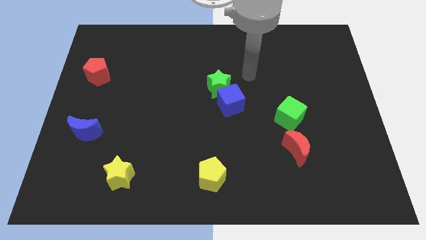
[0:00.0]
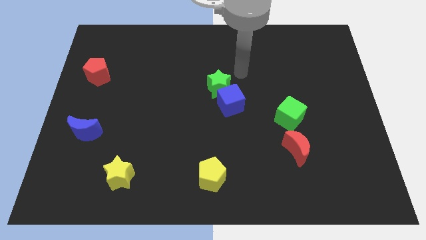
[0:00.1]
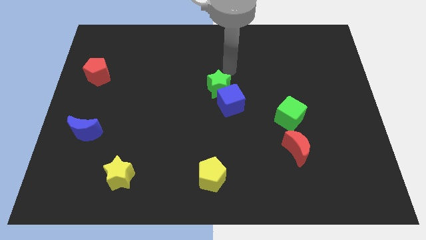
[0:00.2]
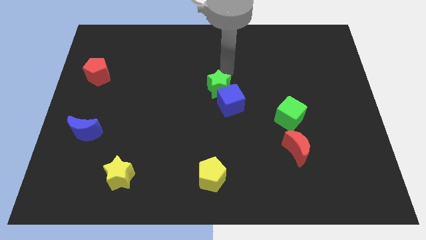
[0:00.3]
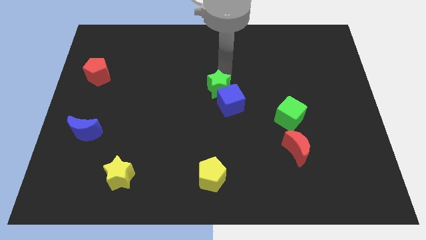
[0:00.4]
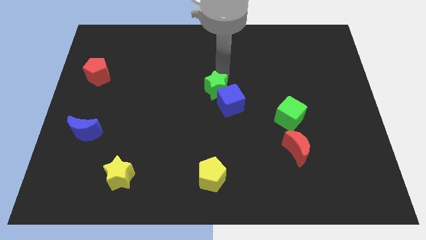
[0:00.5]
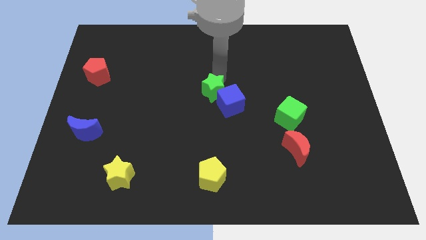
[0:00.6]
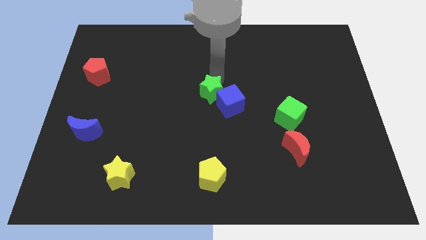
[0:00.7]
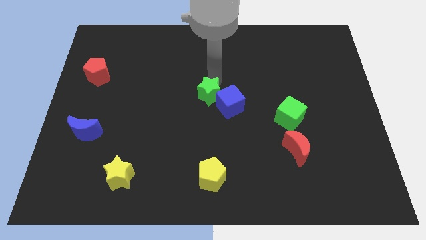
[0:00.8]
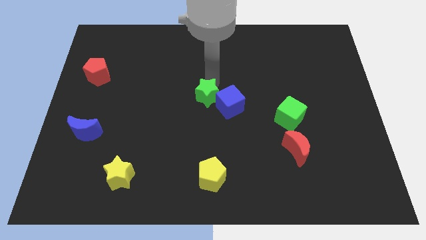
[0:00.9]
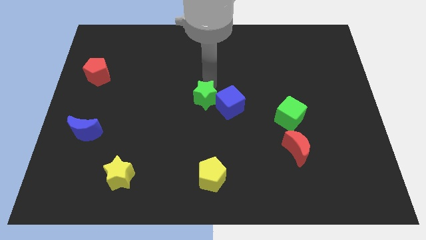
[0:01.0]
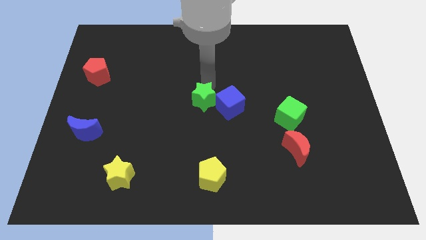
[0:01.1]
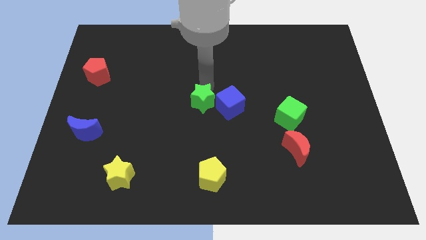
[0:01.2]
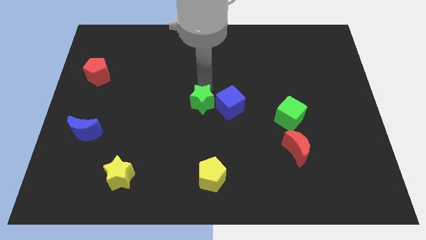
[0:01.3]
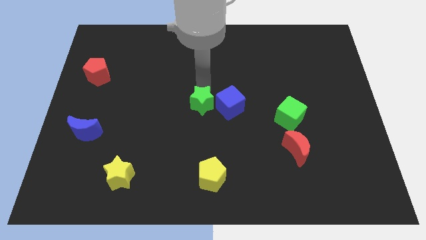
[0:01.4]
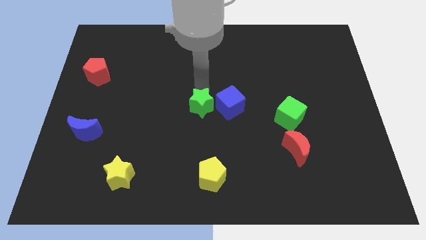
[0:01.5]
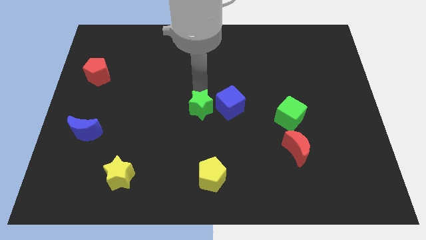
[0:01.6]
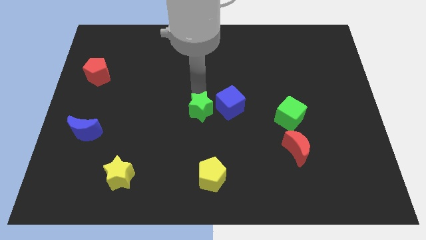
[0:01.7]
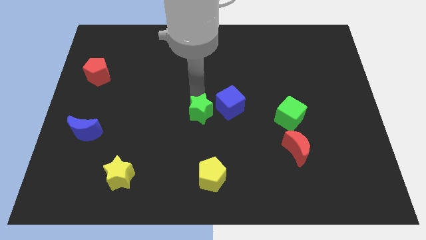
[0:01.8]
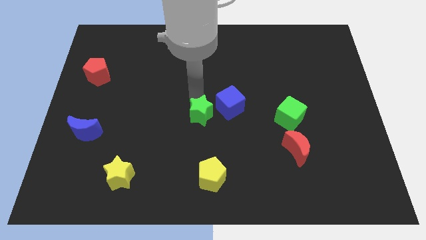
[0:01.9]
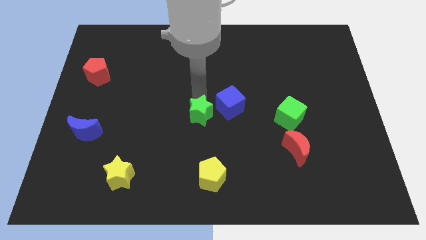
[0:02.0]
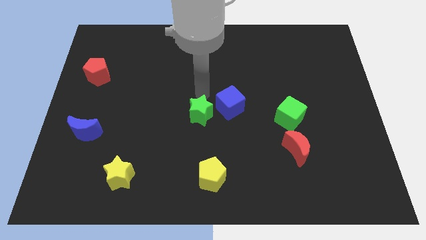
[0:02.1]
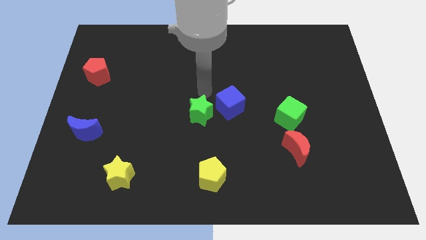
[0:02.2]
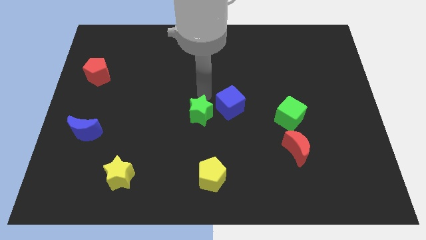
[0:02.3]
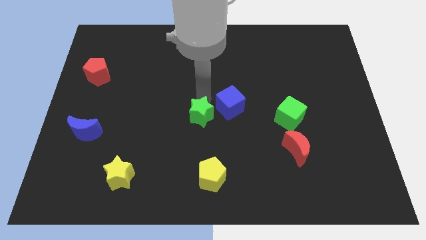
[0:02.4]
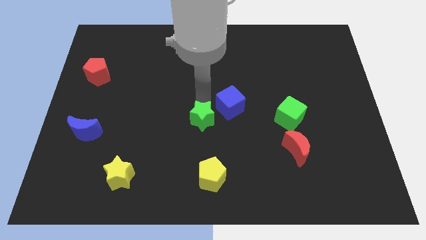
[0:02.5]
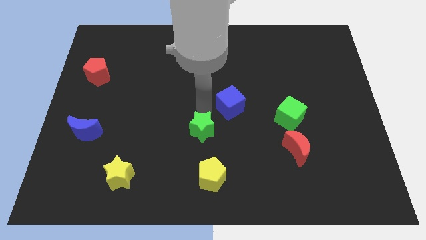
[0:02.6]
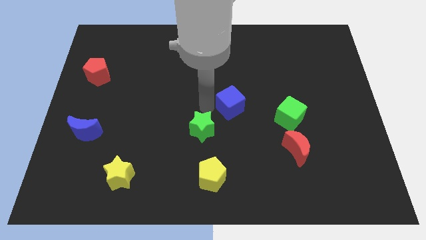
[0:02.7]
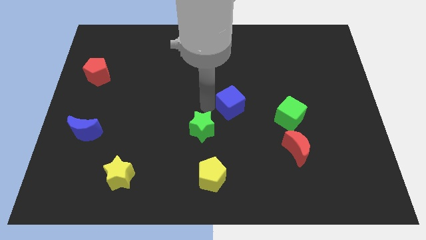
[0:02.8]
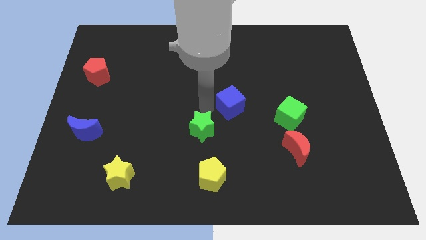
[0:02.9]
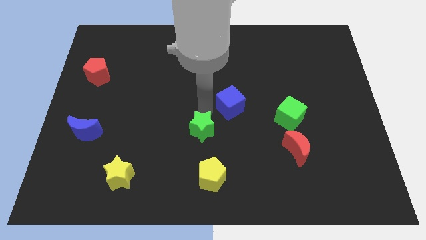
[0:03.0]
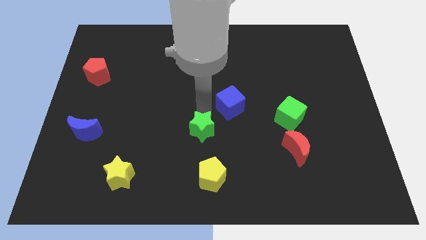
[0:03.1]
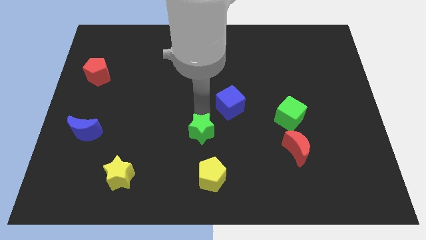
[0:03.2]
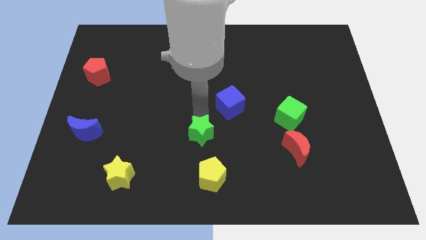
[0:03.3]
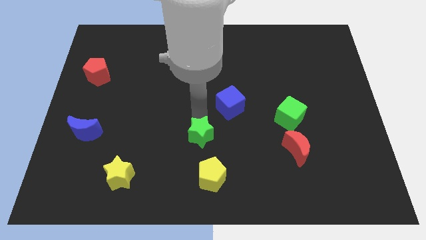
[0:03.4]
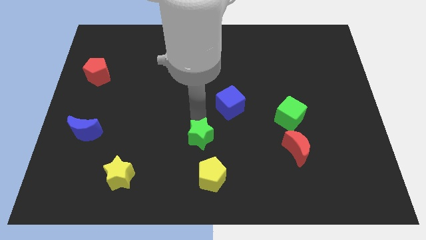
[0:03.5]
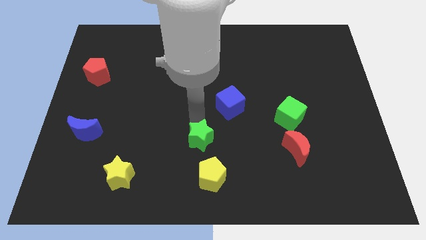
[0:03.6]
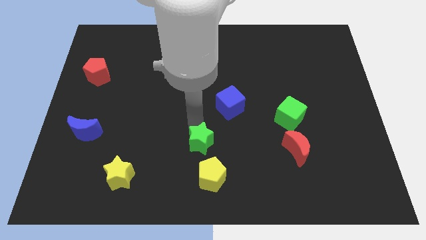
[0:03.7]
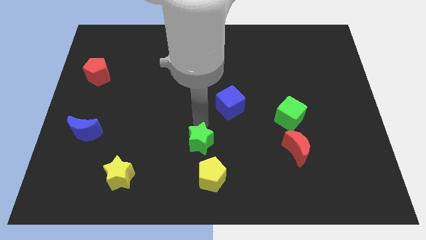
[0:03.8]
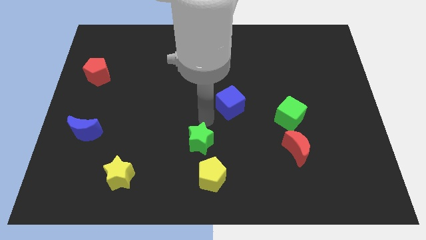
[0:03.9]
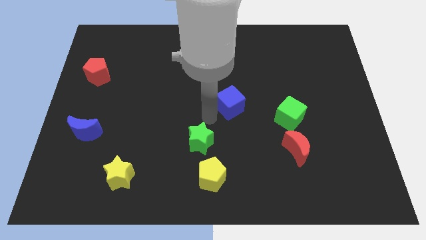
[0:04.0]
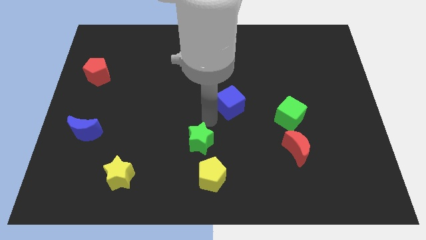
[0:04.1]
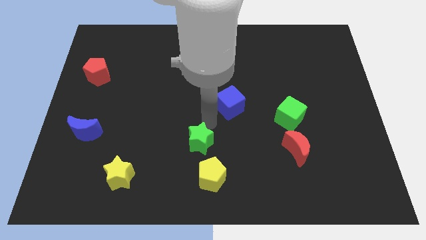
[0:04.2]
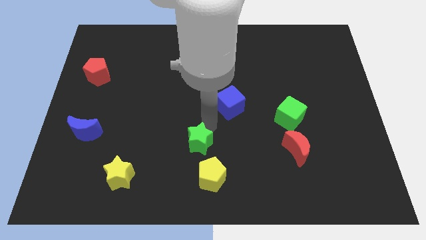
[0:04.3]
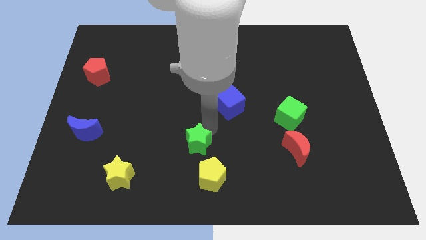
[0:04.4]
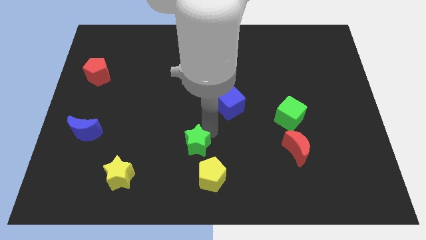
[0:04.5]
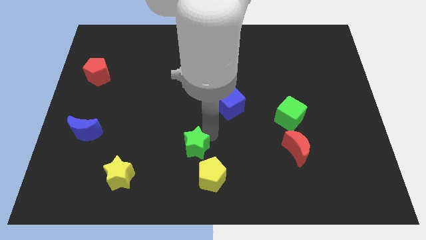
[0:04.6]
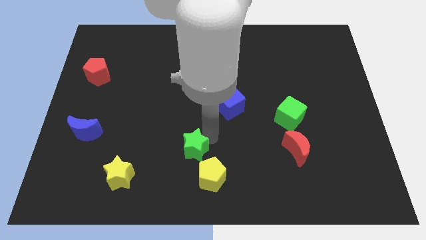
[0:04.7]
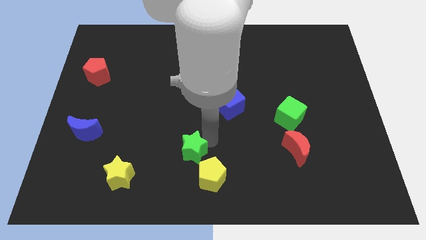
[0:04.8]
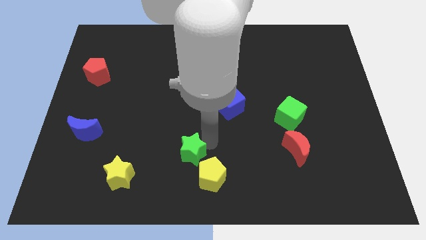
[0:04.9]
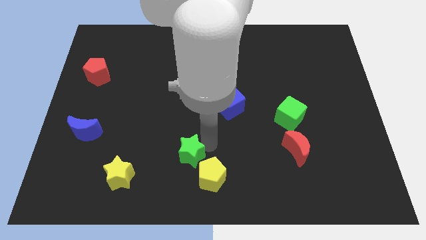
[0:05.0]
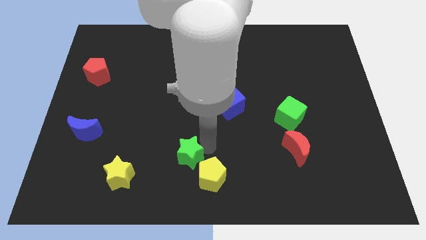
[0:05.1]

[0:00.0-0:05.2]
slide the green star to the bottom side

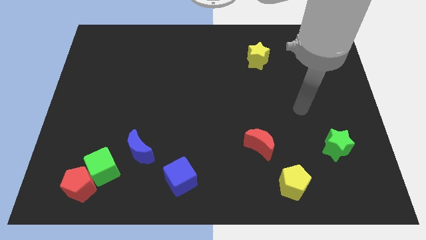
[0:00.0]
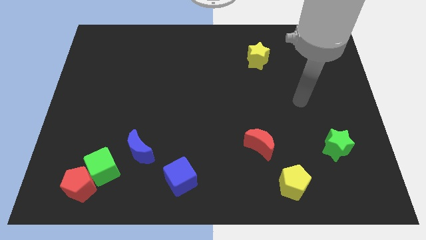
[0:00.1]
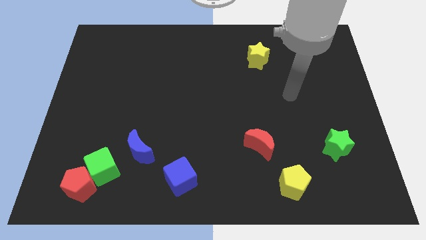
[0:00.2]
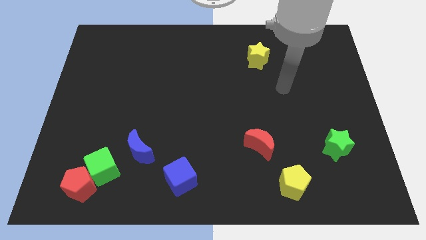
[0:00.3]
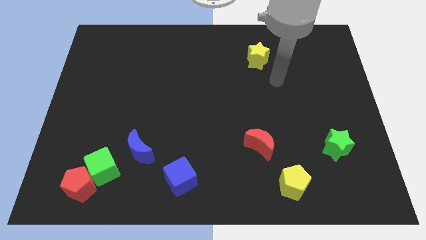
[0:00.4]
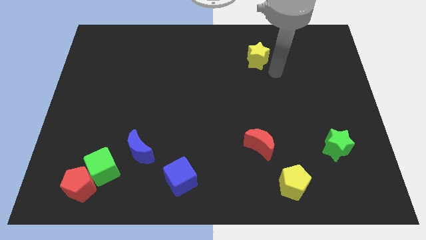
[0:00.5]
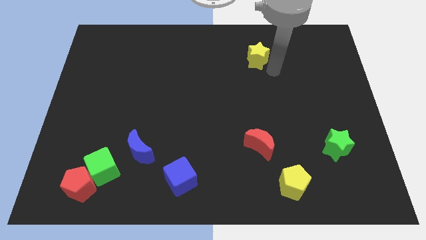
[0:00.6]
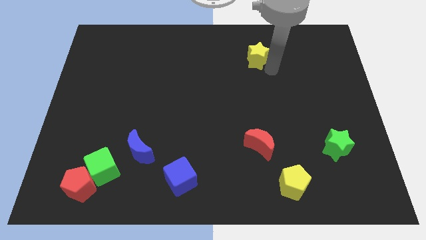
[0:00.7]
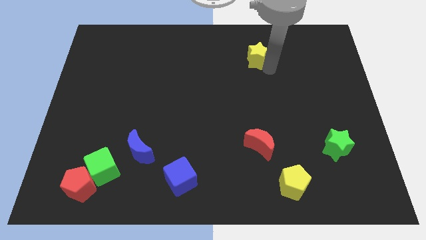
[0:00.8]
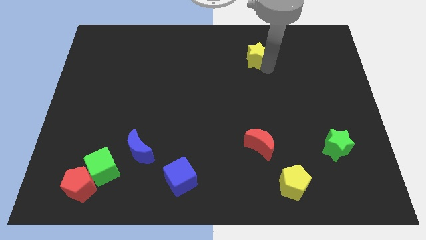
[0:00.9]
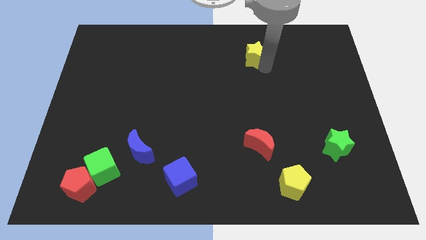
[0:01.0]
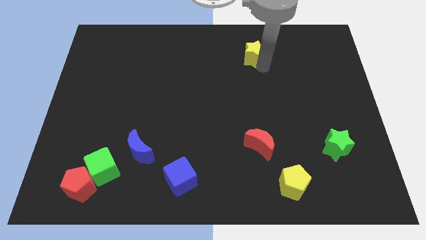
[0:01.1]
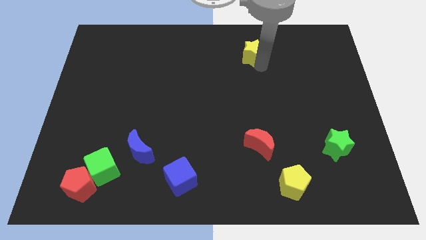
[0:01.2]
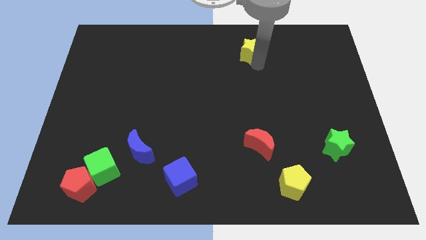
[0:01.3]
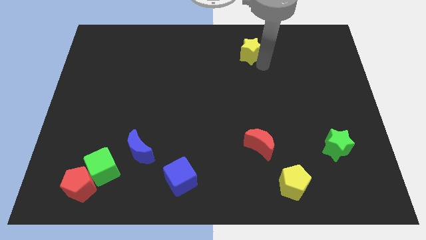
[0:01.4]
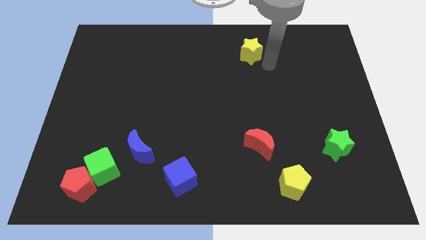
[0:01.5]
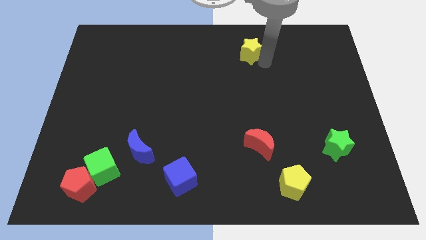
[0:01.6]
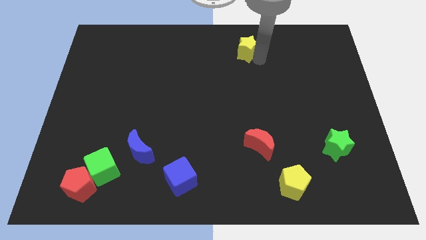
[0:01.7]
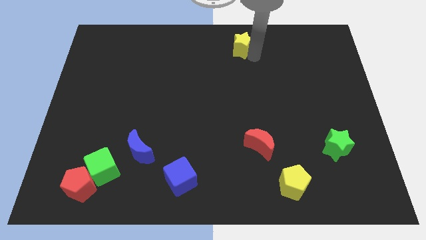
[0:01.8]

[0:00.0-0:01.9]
push the yellow star to the top
